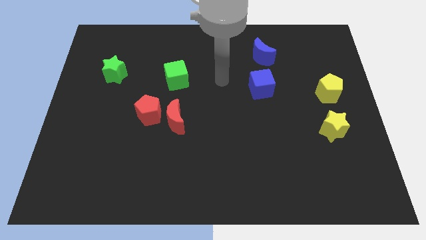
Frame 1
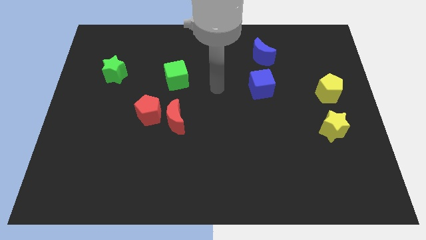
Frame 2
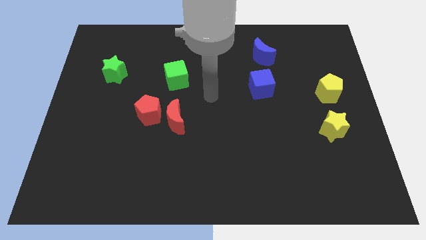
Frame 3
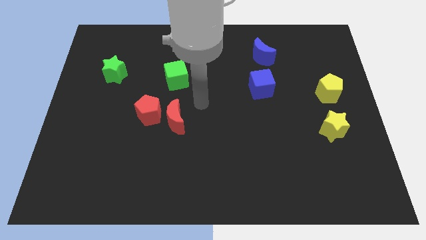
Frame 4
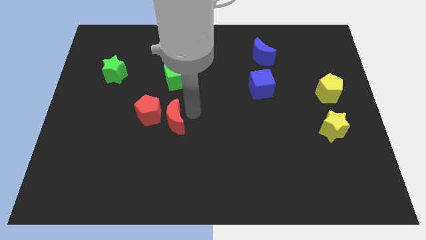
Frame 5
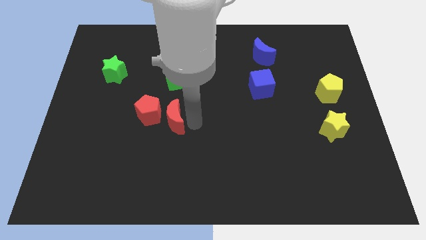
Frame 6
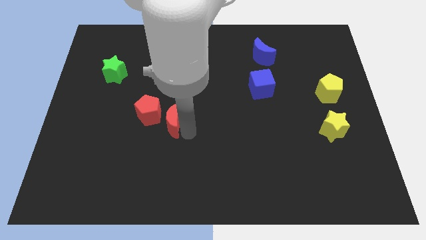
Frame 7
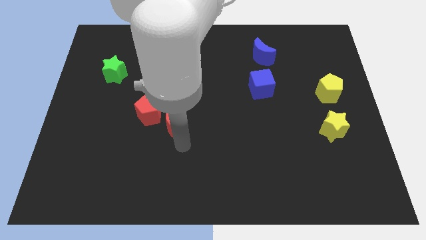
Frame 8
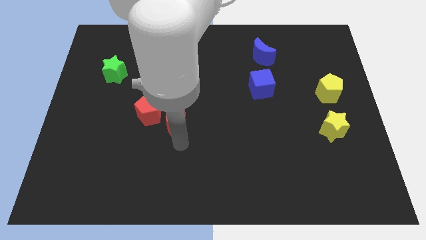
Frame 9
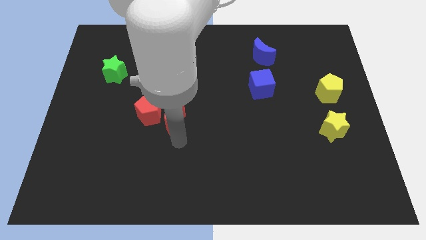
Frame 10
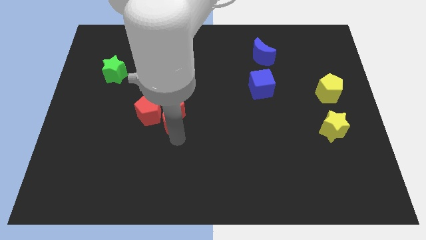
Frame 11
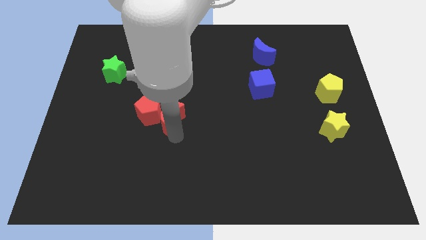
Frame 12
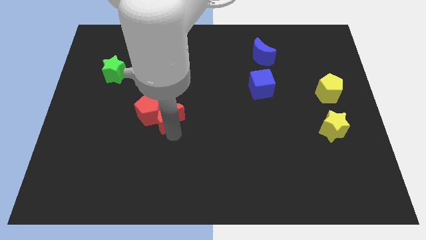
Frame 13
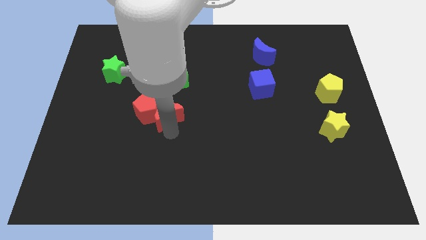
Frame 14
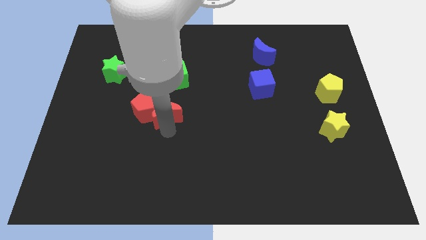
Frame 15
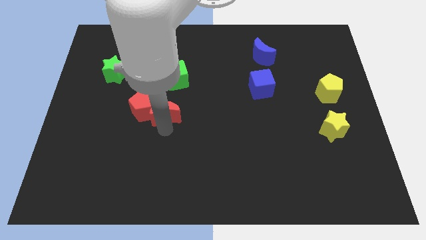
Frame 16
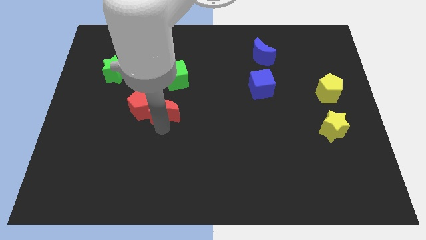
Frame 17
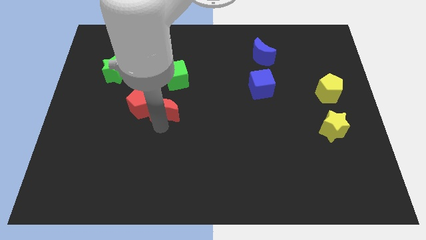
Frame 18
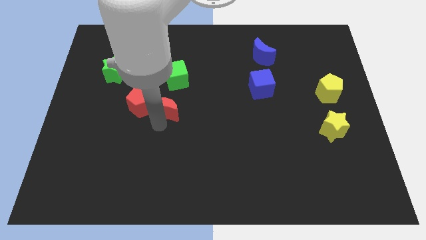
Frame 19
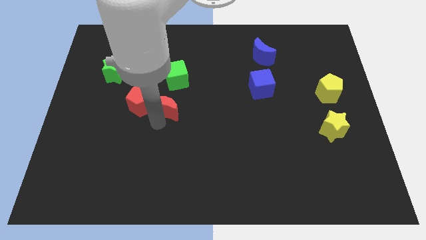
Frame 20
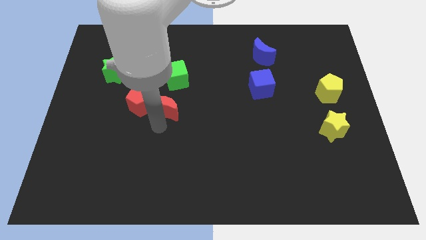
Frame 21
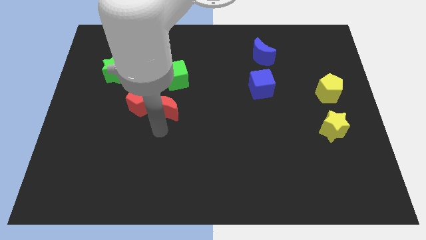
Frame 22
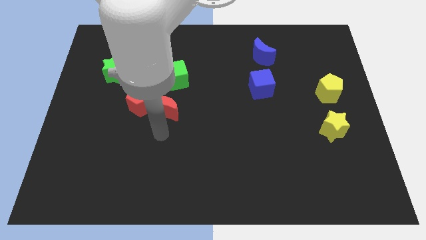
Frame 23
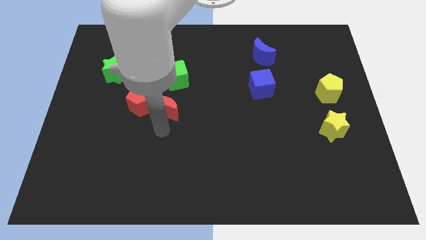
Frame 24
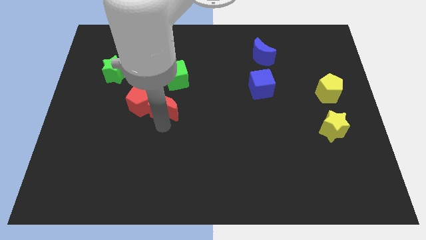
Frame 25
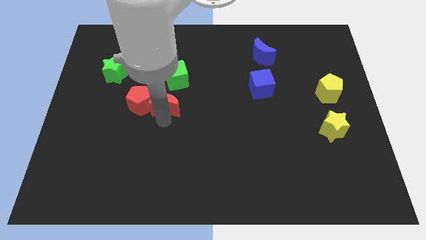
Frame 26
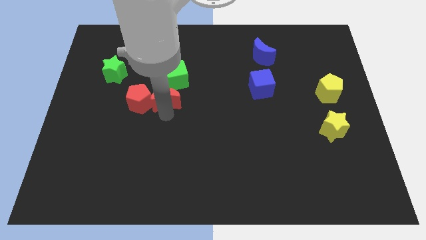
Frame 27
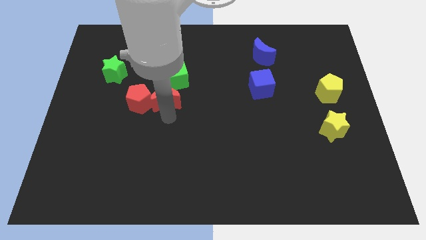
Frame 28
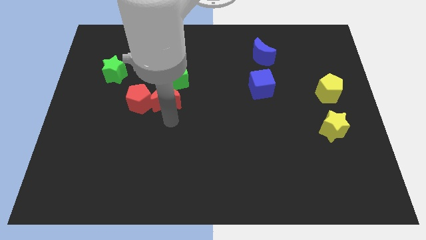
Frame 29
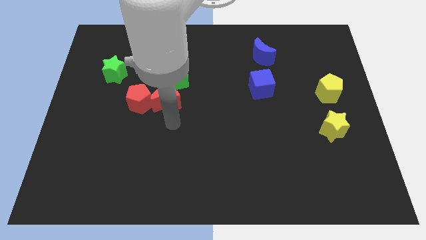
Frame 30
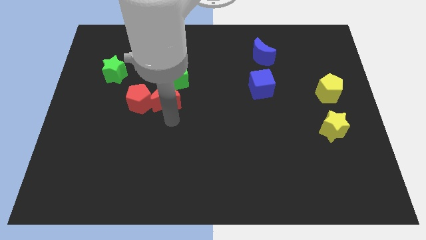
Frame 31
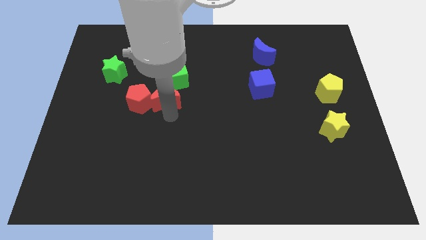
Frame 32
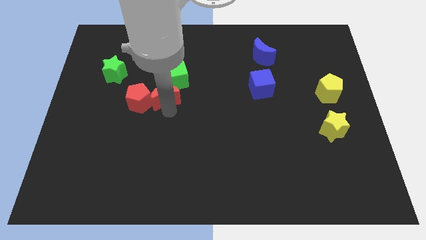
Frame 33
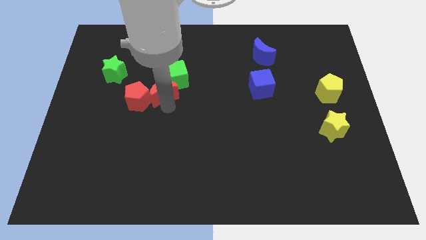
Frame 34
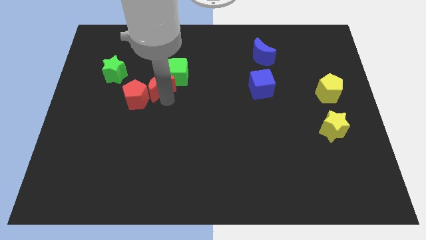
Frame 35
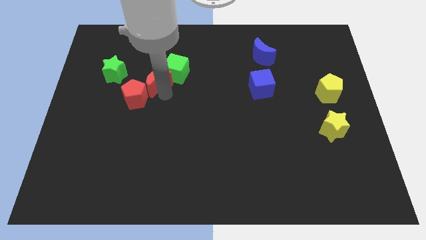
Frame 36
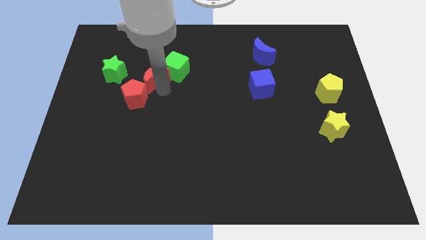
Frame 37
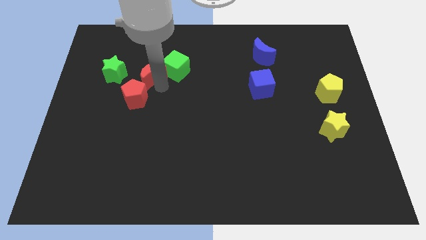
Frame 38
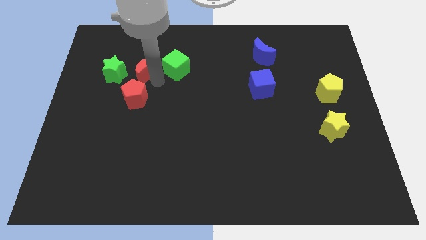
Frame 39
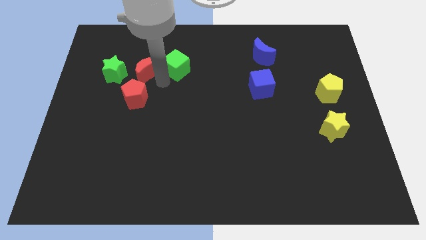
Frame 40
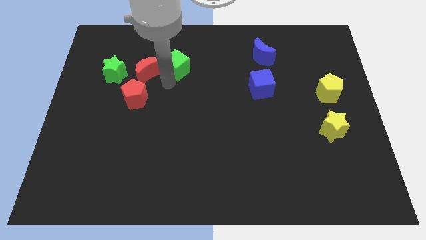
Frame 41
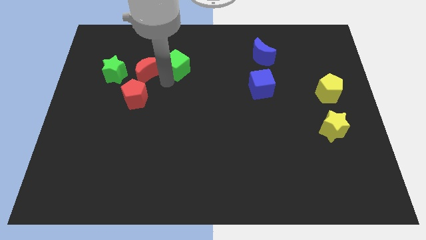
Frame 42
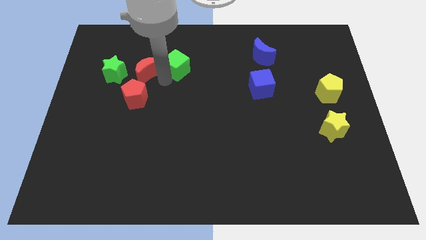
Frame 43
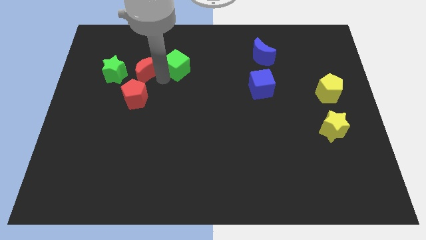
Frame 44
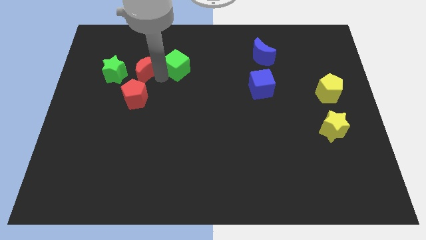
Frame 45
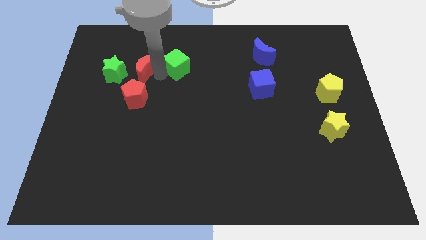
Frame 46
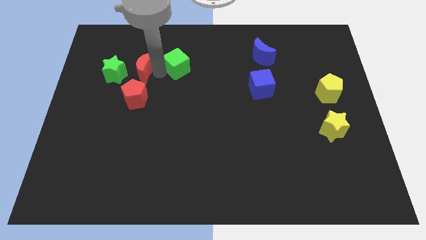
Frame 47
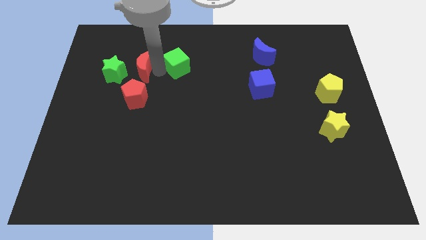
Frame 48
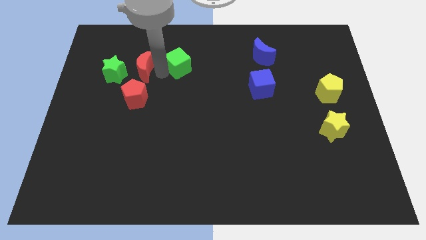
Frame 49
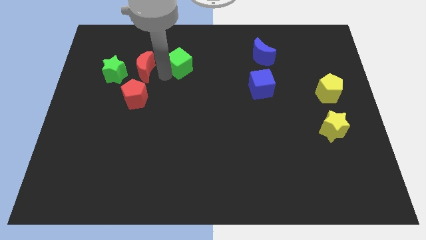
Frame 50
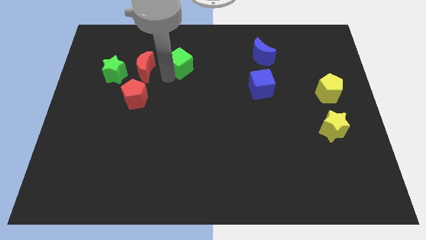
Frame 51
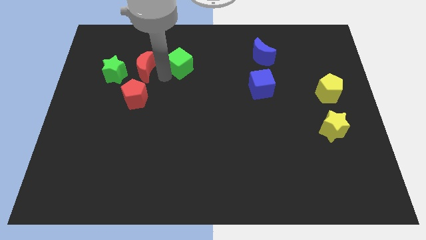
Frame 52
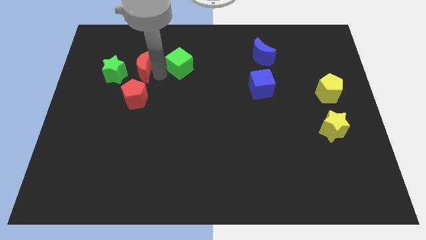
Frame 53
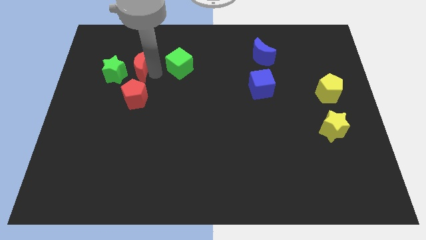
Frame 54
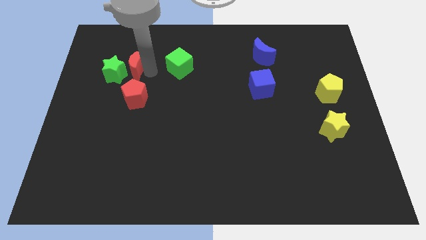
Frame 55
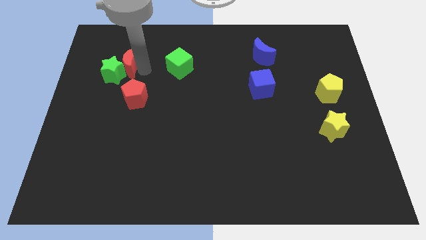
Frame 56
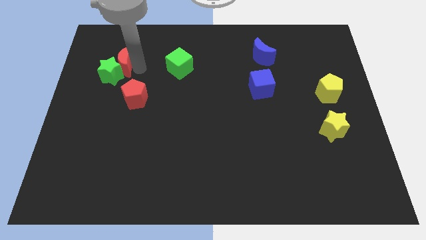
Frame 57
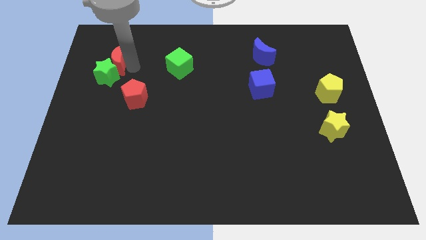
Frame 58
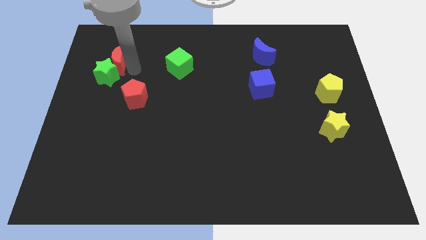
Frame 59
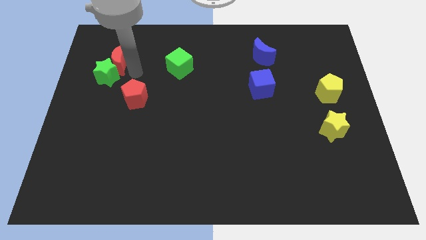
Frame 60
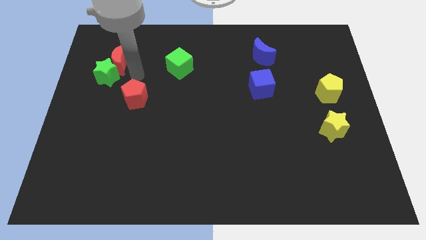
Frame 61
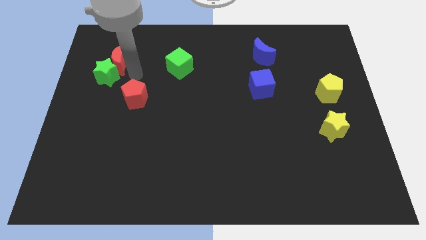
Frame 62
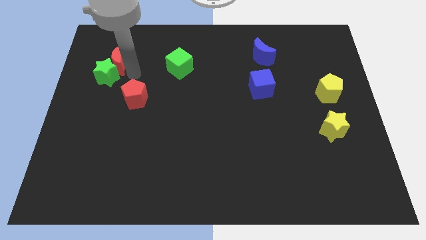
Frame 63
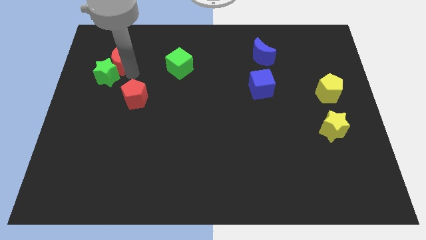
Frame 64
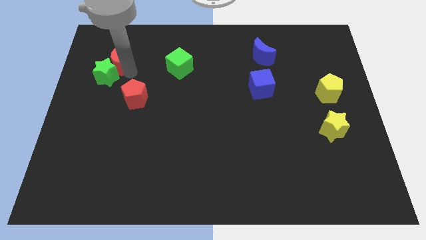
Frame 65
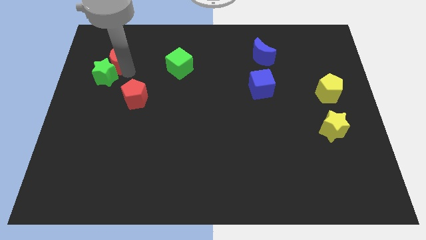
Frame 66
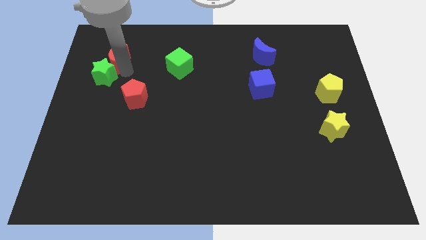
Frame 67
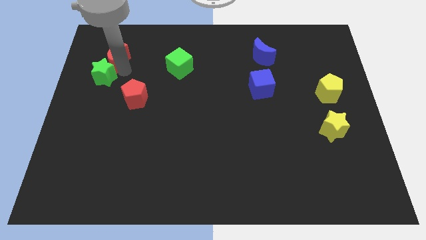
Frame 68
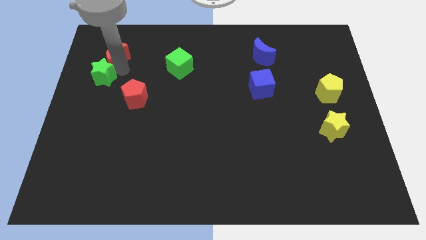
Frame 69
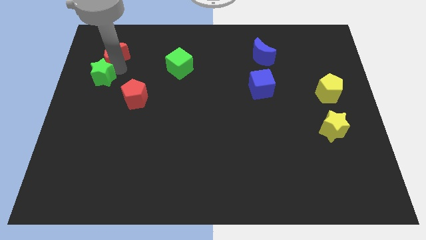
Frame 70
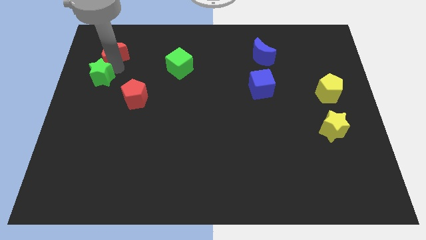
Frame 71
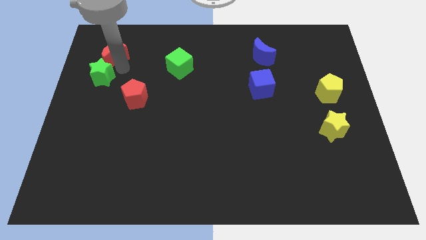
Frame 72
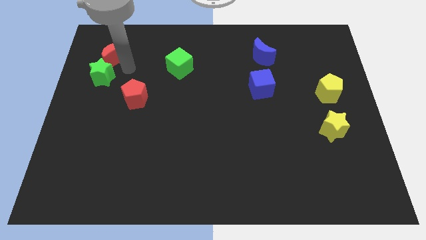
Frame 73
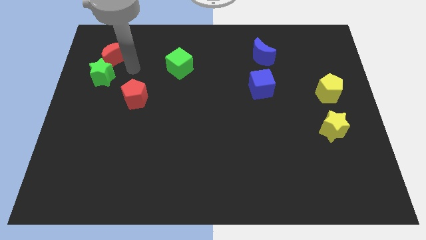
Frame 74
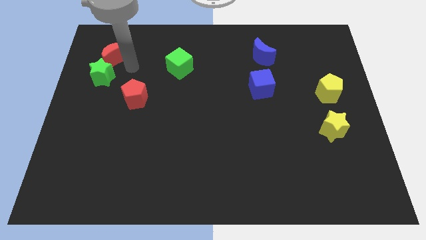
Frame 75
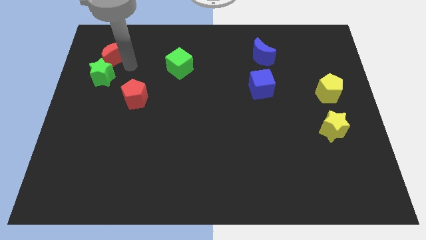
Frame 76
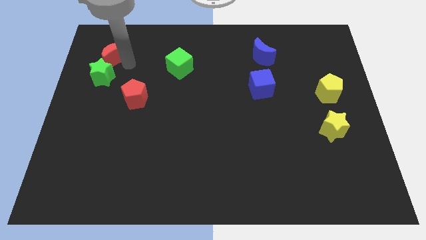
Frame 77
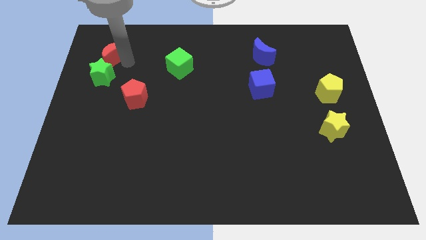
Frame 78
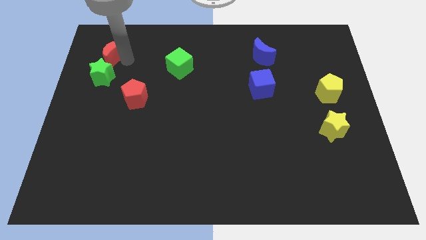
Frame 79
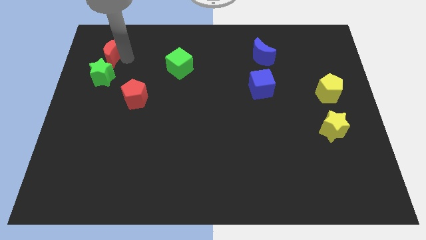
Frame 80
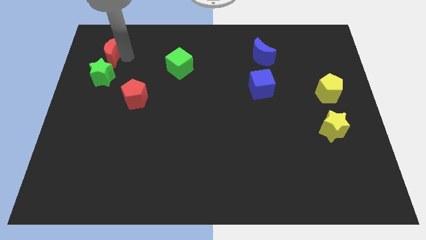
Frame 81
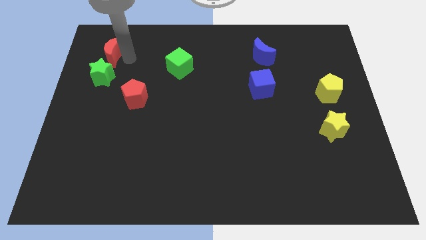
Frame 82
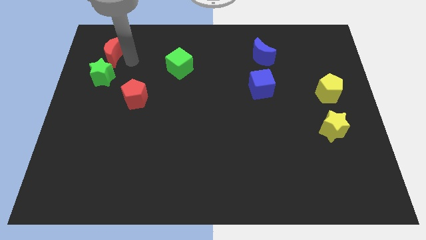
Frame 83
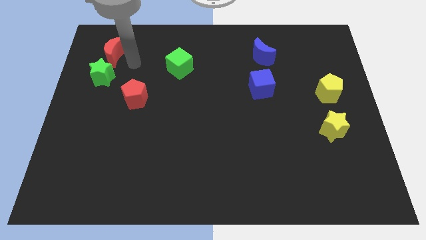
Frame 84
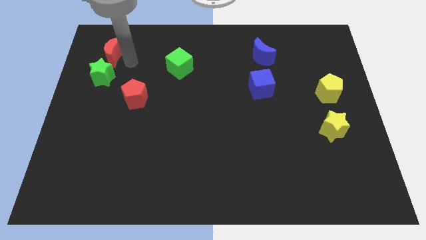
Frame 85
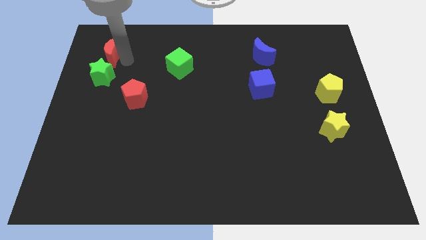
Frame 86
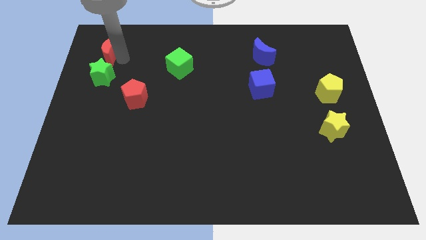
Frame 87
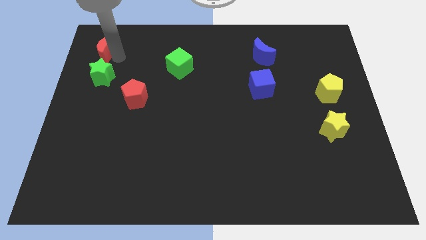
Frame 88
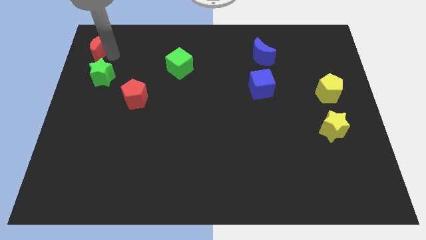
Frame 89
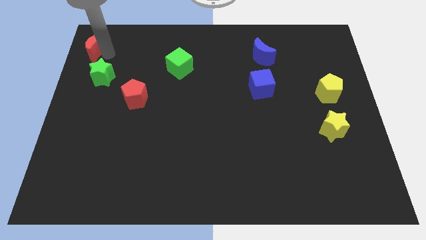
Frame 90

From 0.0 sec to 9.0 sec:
slide the red moon to the upper left corner
